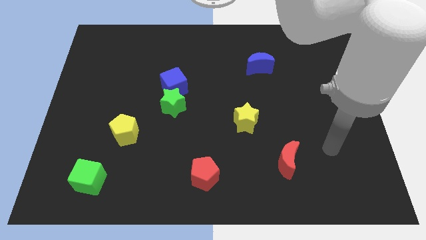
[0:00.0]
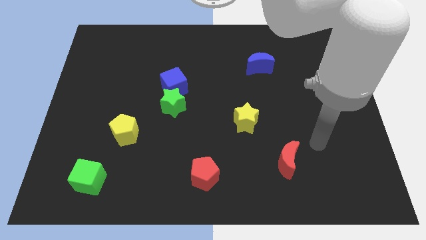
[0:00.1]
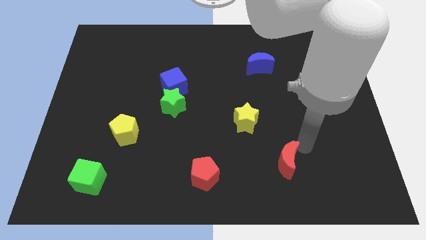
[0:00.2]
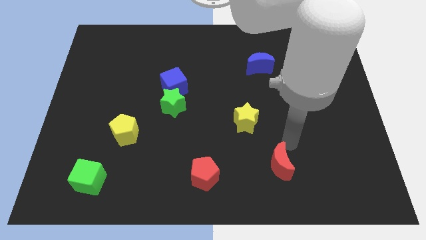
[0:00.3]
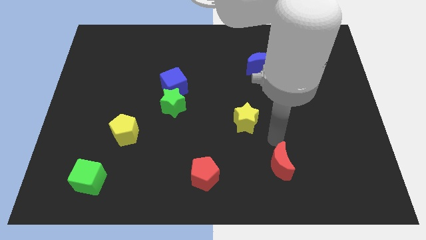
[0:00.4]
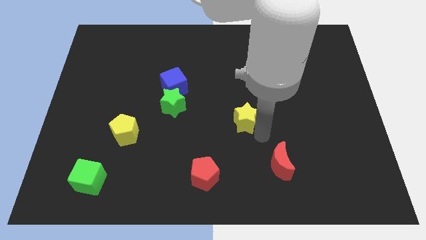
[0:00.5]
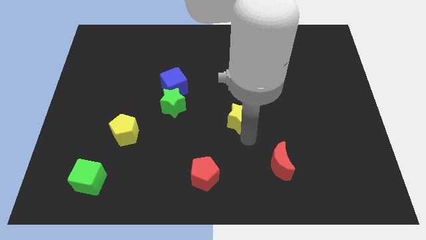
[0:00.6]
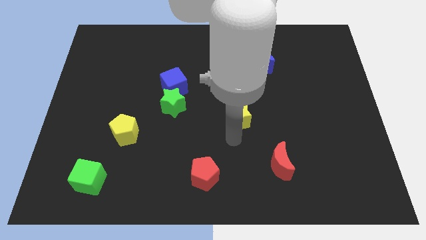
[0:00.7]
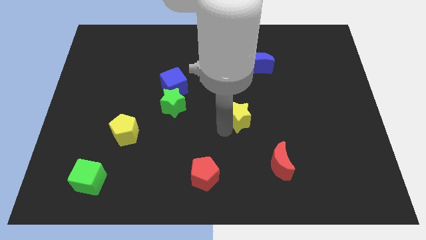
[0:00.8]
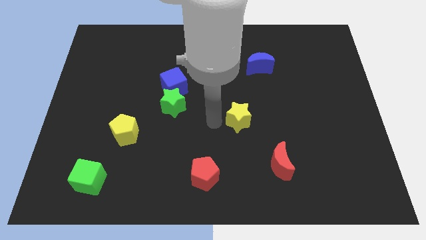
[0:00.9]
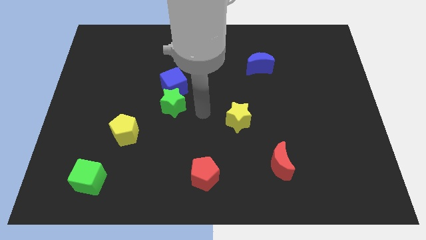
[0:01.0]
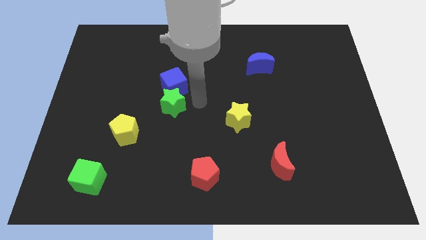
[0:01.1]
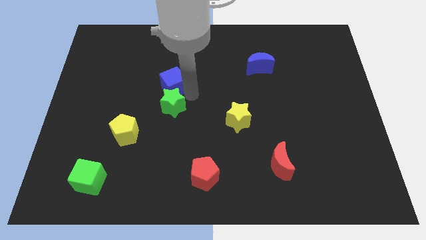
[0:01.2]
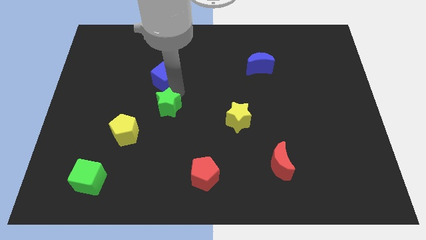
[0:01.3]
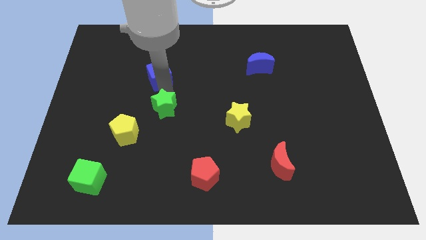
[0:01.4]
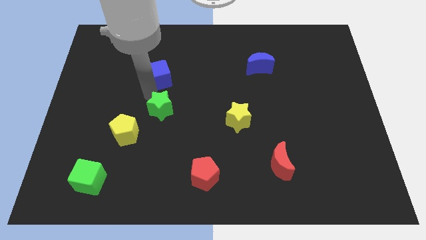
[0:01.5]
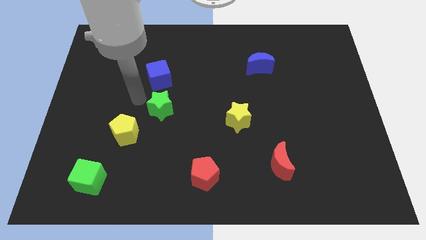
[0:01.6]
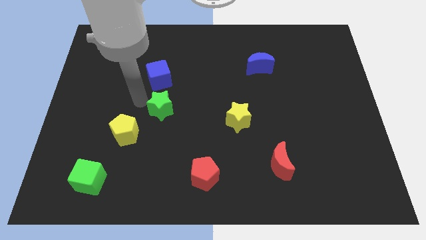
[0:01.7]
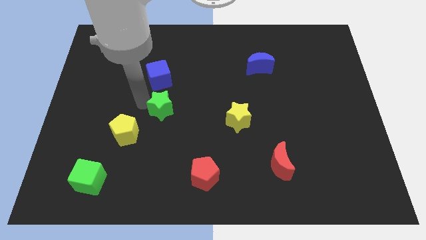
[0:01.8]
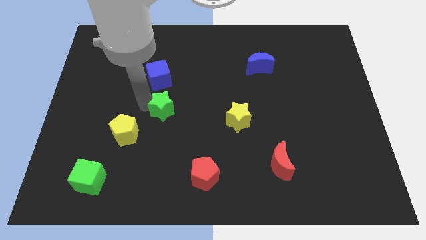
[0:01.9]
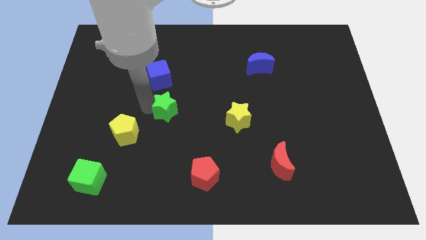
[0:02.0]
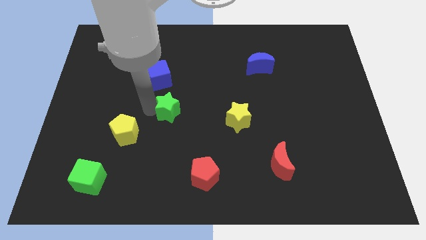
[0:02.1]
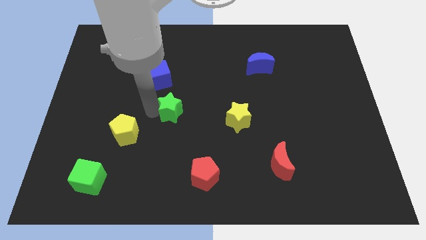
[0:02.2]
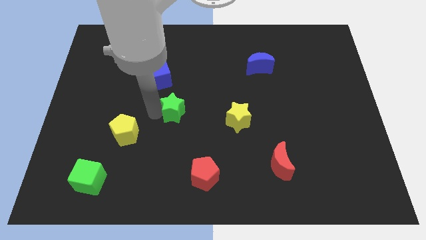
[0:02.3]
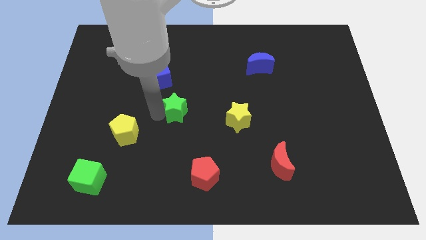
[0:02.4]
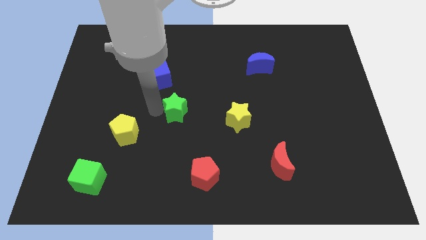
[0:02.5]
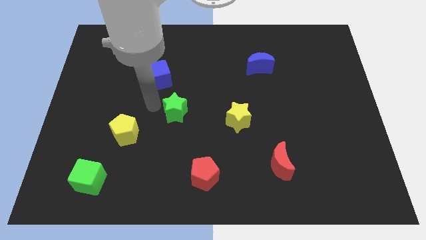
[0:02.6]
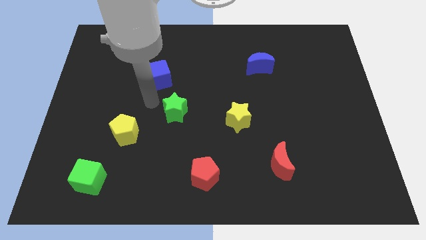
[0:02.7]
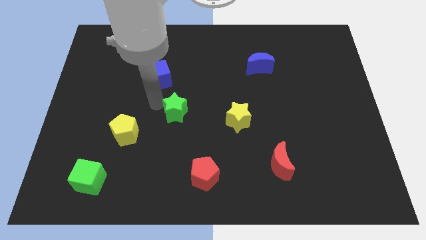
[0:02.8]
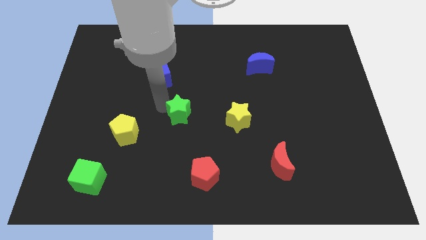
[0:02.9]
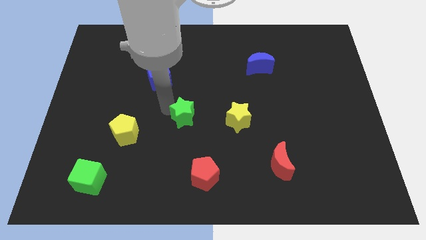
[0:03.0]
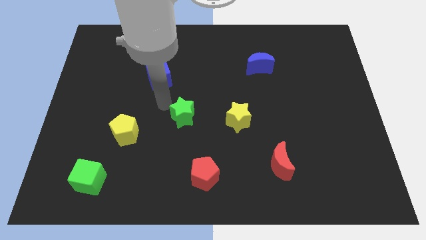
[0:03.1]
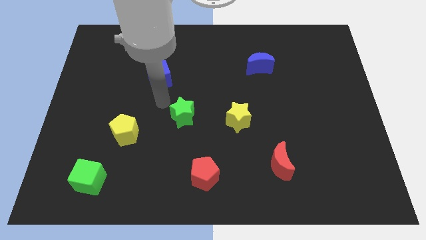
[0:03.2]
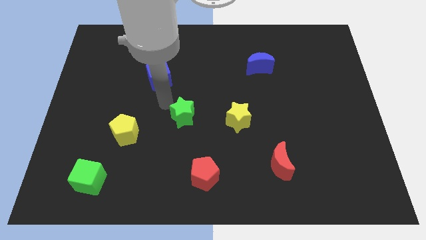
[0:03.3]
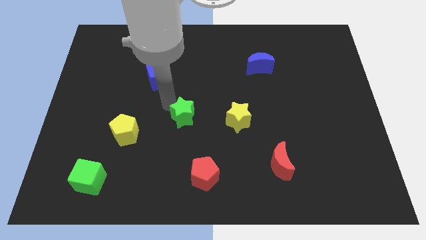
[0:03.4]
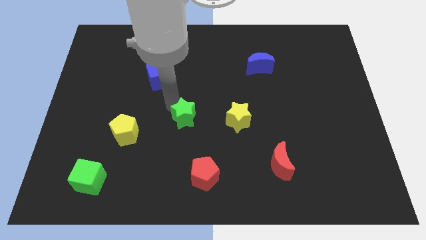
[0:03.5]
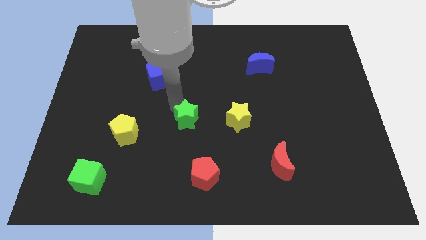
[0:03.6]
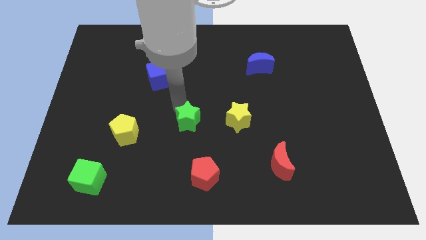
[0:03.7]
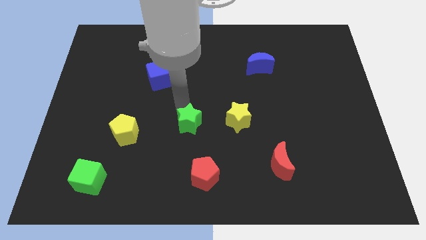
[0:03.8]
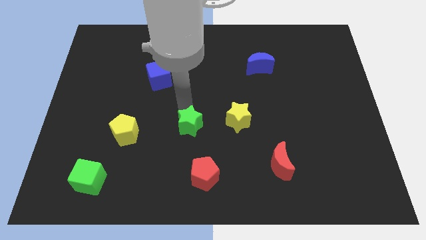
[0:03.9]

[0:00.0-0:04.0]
push the green star a little downwards and then right

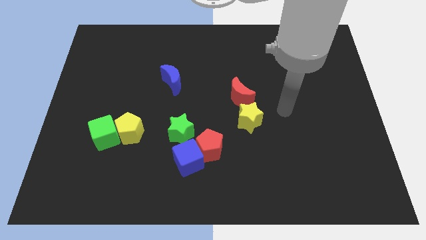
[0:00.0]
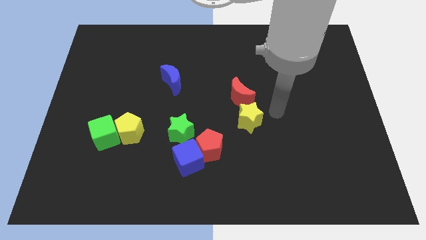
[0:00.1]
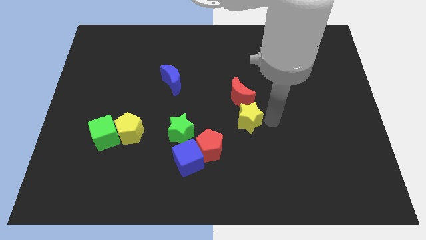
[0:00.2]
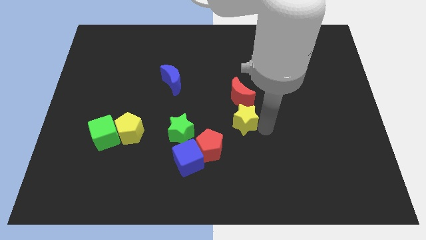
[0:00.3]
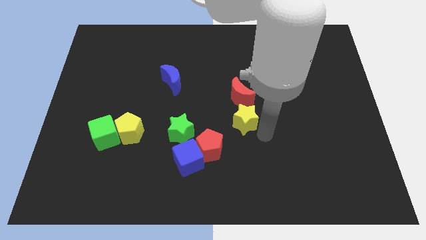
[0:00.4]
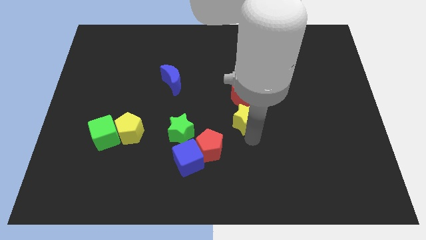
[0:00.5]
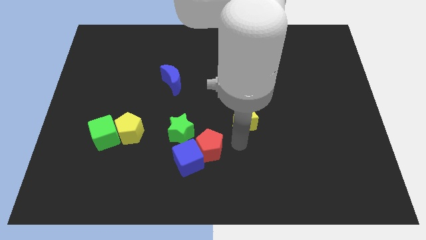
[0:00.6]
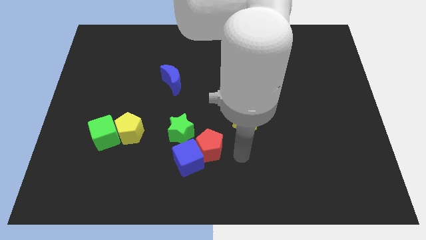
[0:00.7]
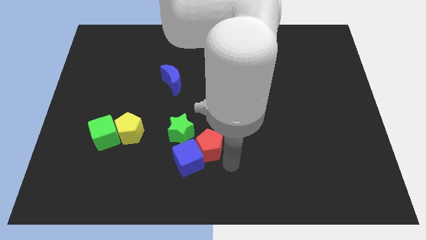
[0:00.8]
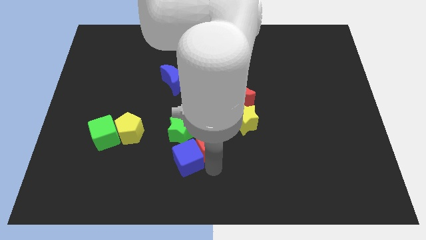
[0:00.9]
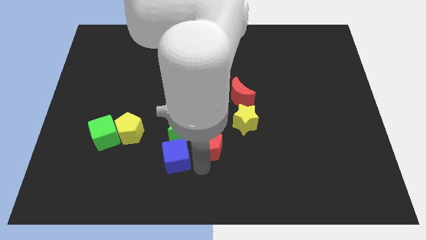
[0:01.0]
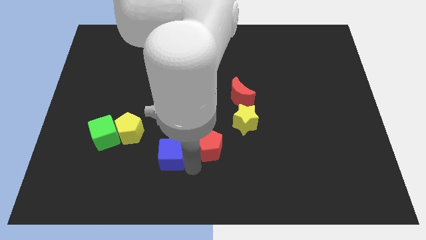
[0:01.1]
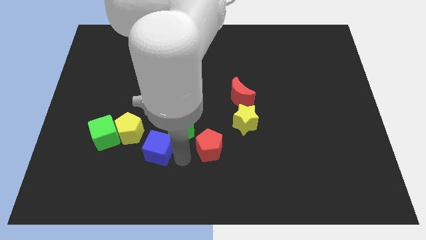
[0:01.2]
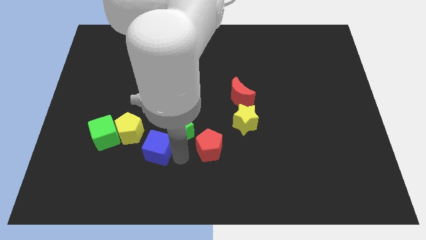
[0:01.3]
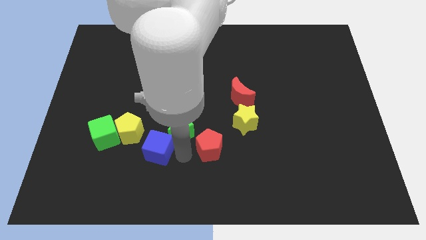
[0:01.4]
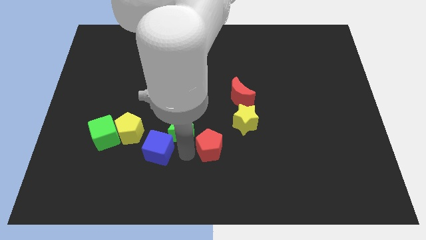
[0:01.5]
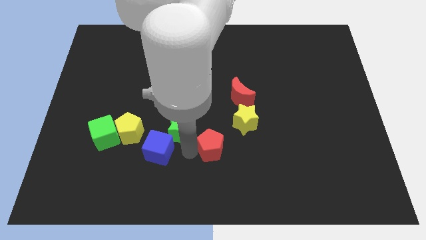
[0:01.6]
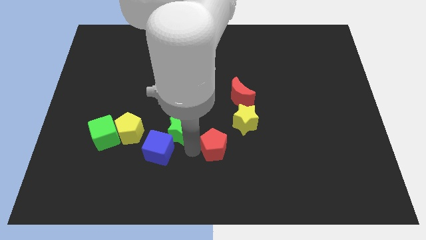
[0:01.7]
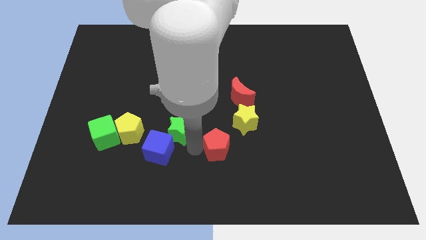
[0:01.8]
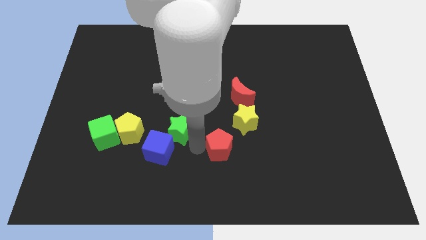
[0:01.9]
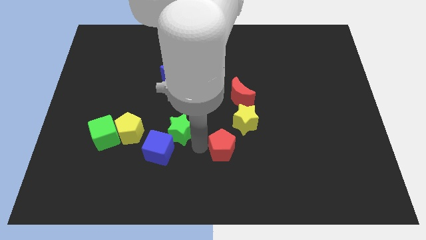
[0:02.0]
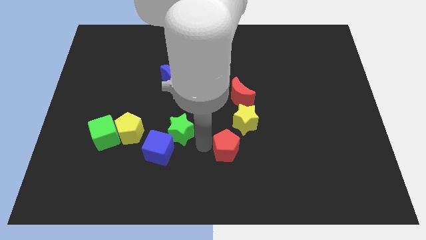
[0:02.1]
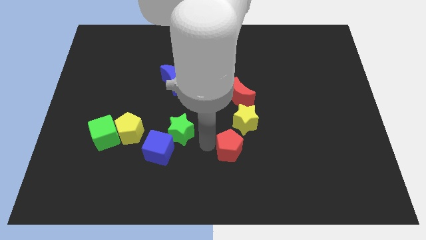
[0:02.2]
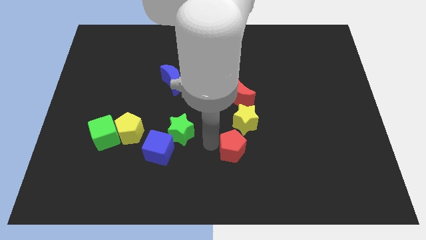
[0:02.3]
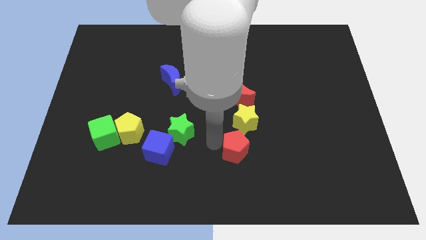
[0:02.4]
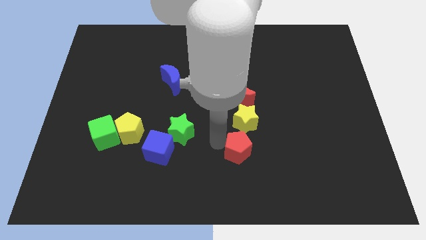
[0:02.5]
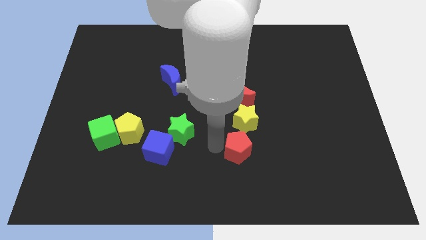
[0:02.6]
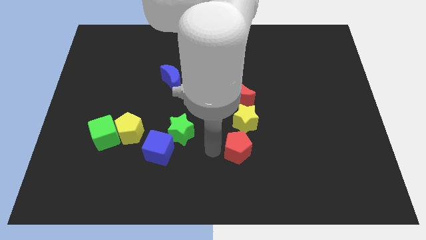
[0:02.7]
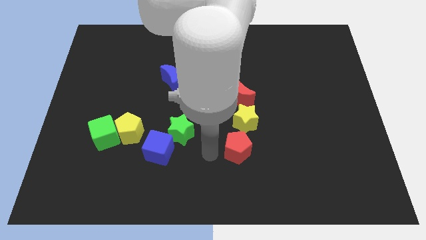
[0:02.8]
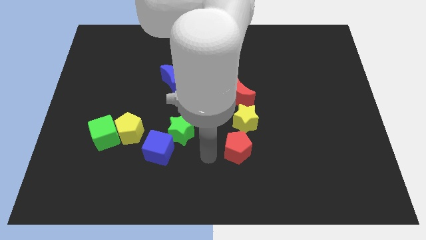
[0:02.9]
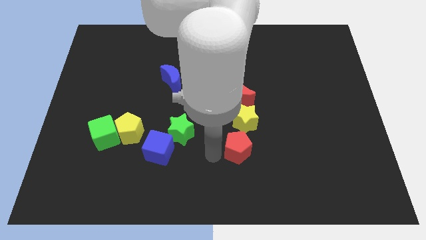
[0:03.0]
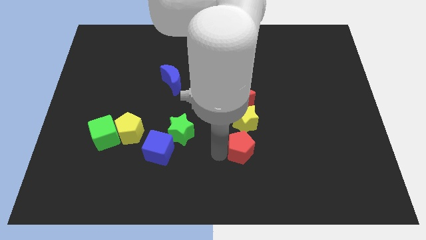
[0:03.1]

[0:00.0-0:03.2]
push the red pentagon a bit to the right

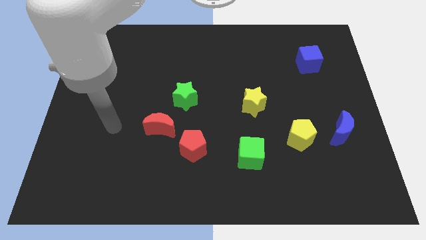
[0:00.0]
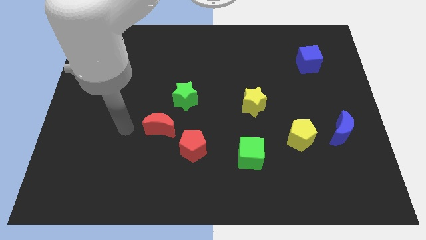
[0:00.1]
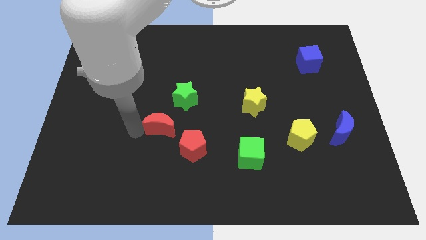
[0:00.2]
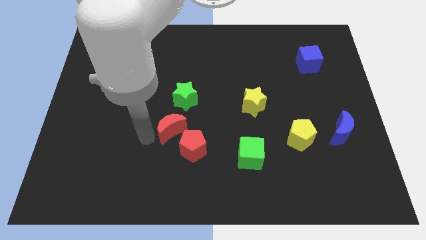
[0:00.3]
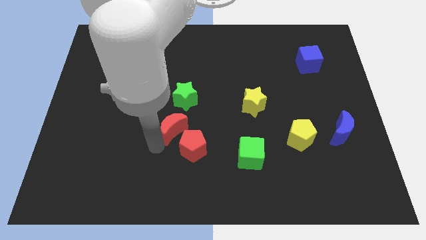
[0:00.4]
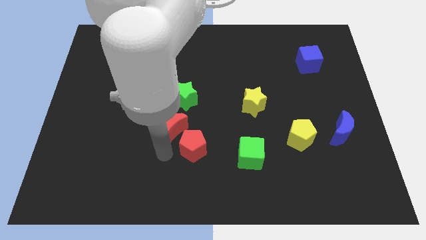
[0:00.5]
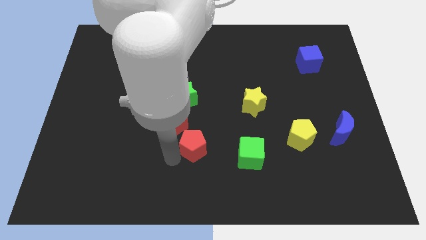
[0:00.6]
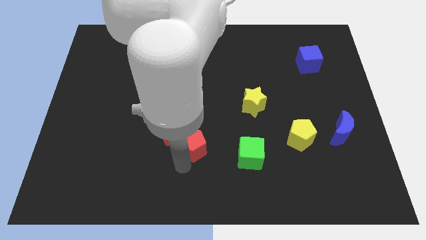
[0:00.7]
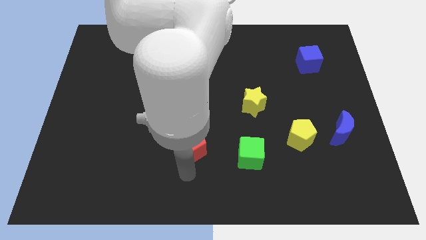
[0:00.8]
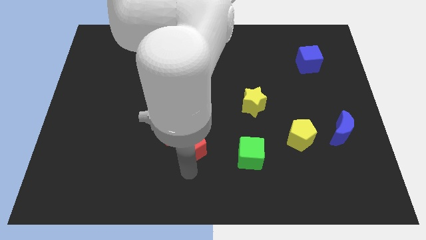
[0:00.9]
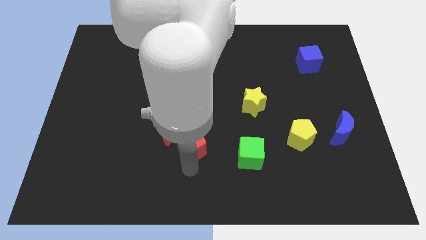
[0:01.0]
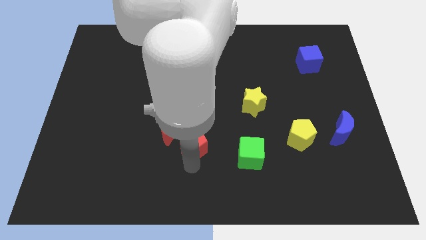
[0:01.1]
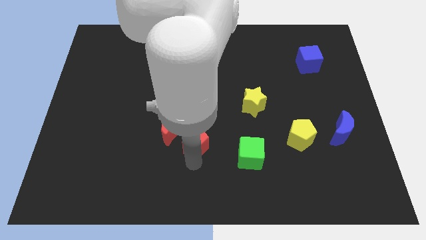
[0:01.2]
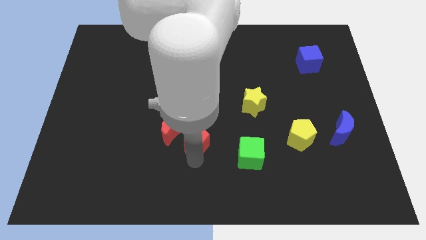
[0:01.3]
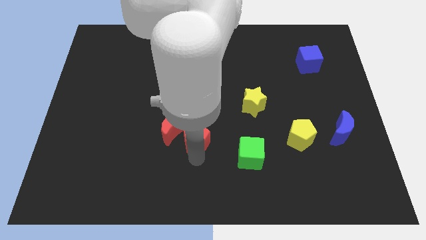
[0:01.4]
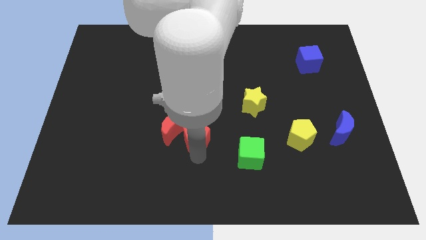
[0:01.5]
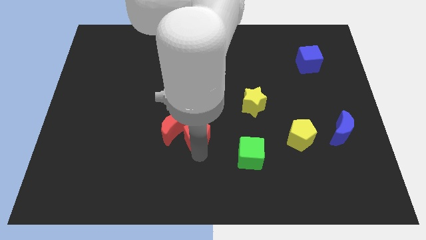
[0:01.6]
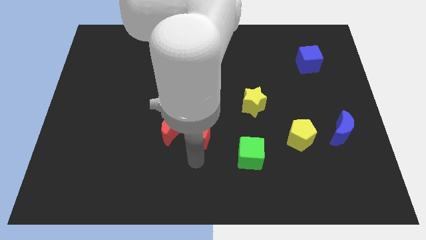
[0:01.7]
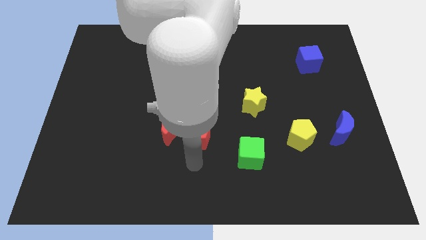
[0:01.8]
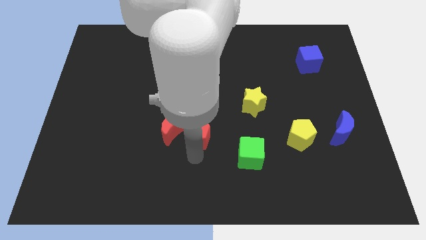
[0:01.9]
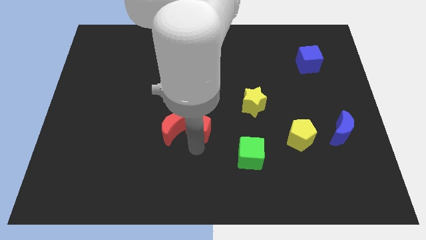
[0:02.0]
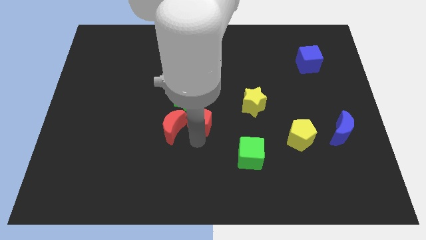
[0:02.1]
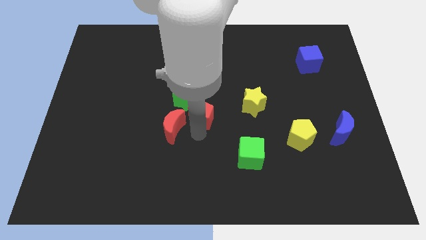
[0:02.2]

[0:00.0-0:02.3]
slightly push the red pentagon upwards
